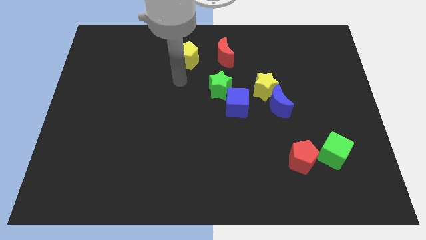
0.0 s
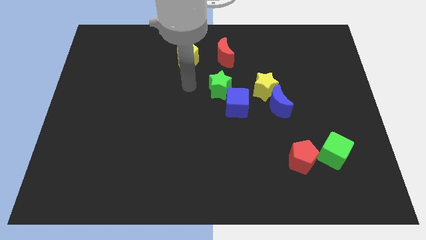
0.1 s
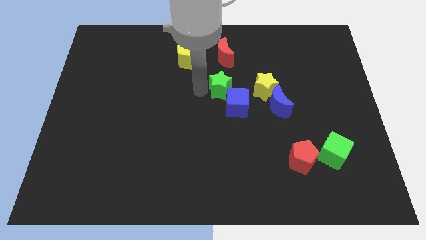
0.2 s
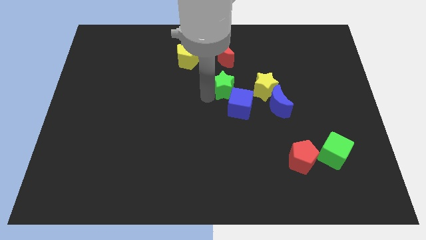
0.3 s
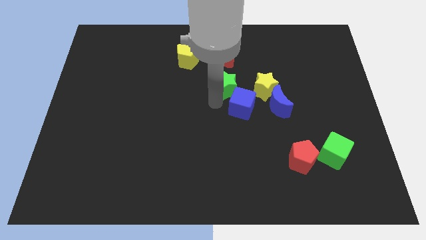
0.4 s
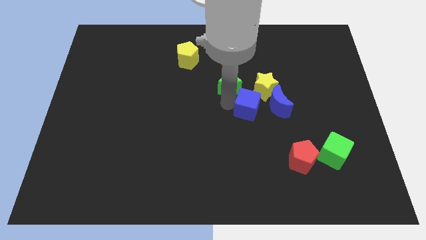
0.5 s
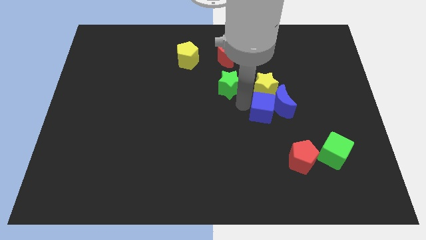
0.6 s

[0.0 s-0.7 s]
separate the green star from the blue cube

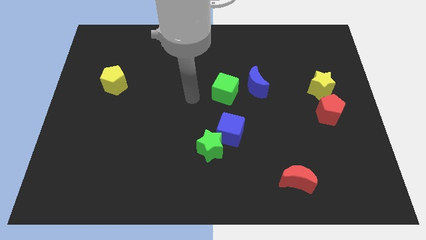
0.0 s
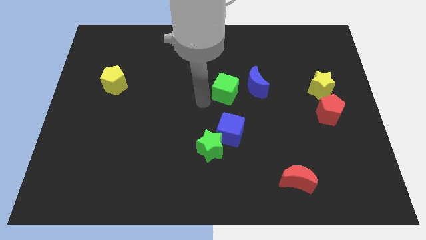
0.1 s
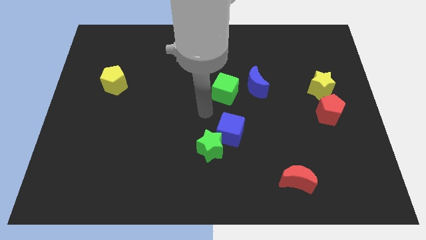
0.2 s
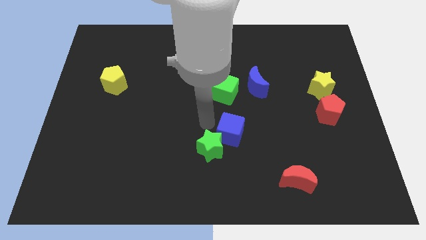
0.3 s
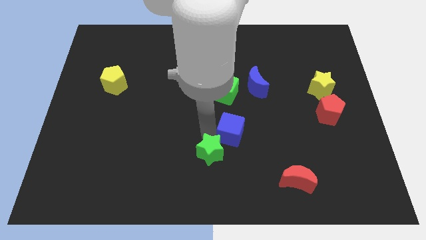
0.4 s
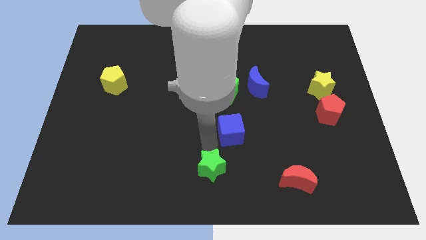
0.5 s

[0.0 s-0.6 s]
move the blue cube away from the green star

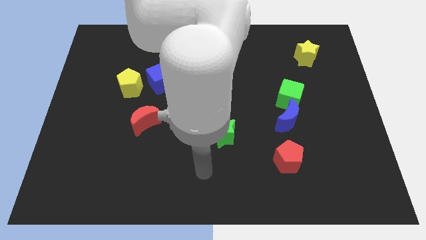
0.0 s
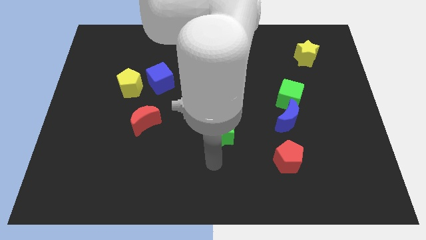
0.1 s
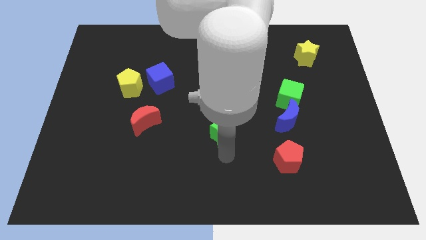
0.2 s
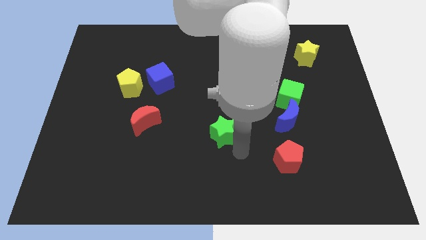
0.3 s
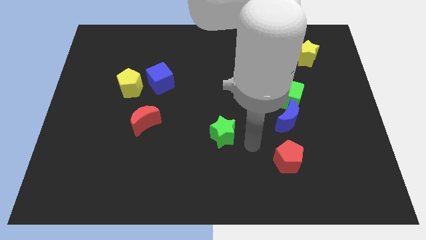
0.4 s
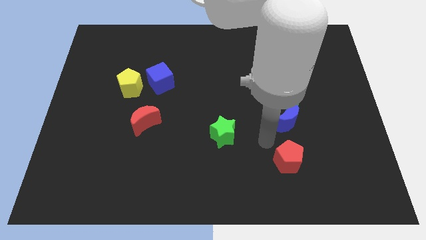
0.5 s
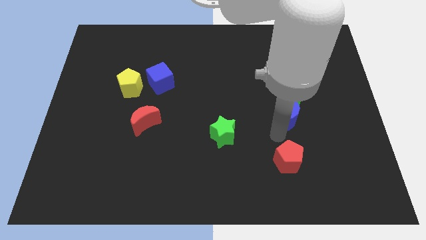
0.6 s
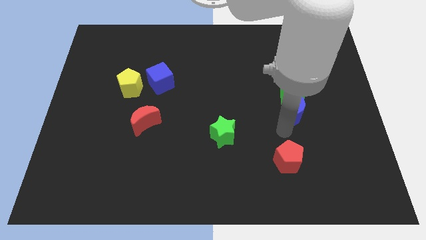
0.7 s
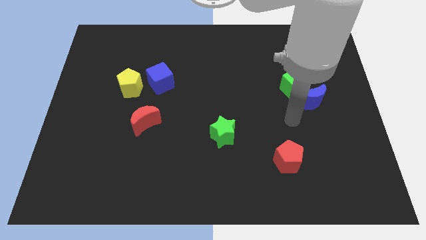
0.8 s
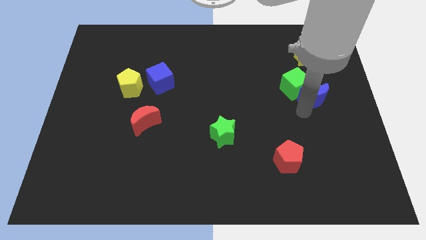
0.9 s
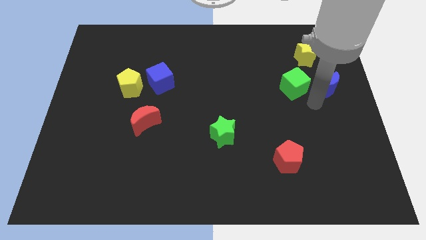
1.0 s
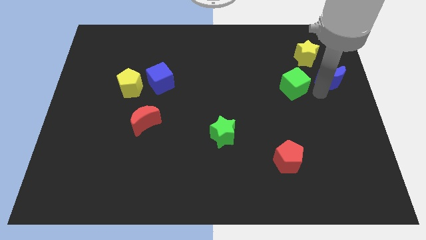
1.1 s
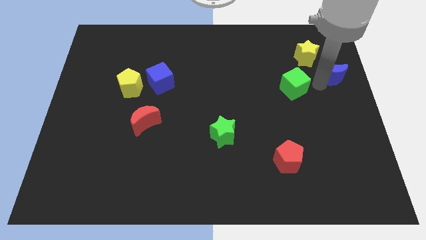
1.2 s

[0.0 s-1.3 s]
pull the green cube apart from the blue moon

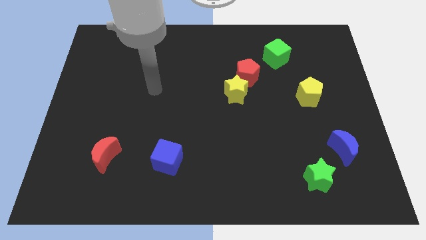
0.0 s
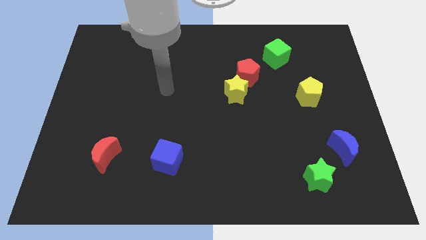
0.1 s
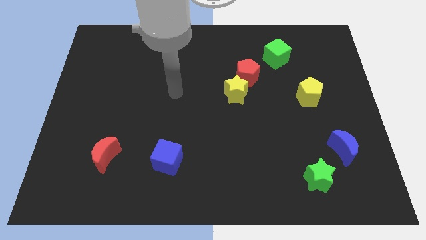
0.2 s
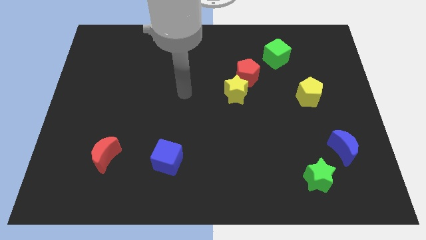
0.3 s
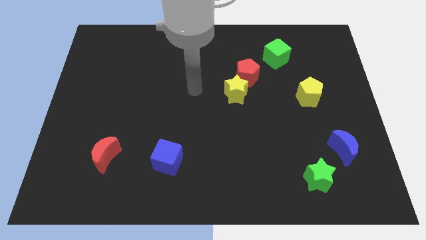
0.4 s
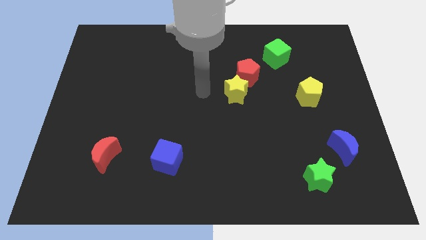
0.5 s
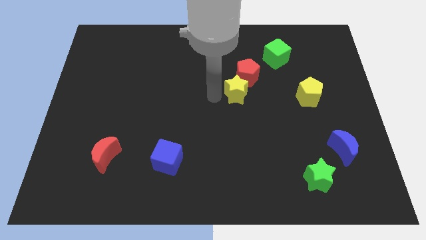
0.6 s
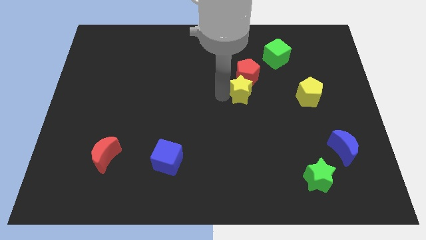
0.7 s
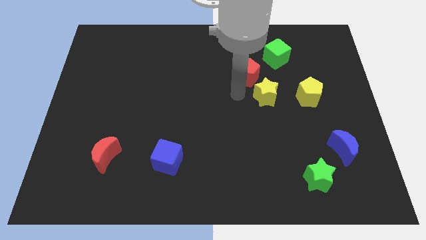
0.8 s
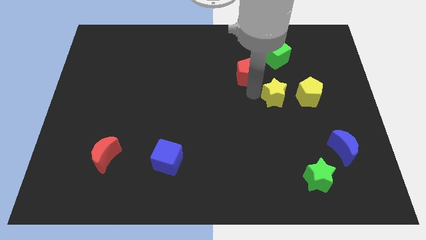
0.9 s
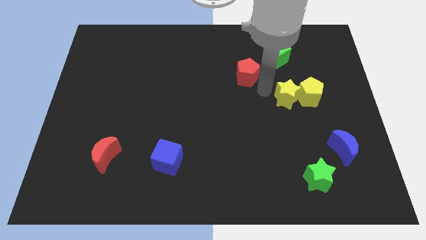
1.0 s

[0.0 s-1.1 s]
move the red pentagon away from the yellow star

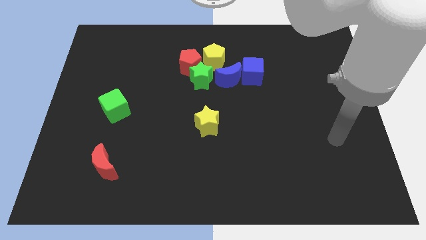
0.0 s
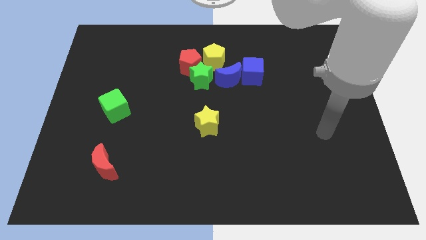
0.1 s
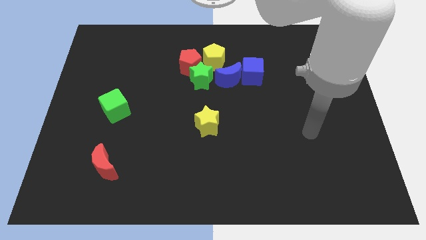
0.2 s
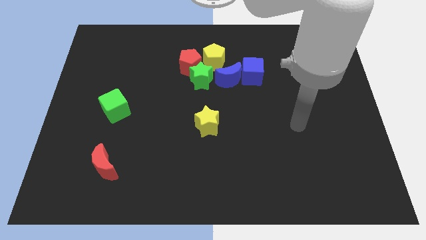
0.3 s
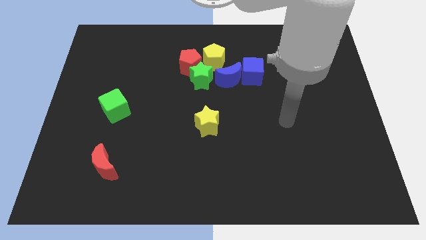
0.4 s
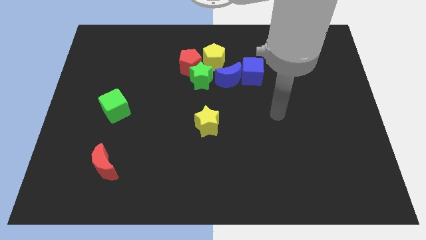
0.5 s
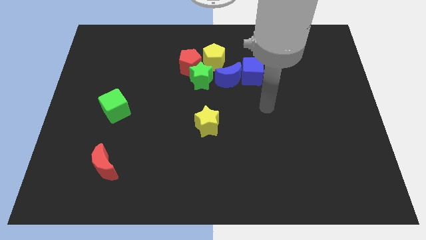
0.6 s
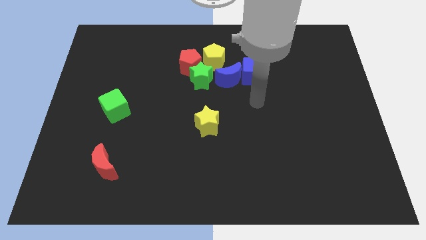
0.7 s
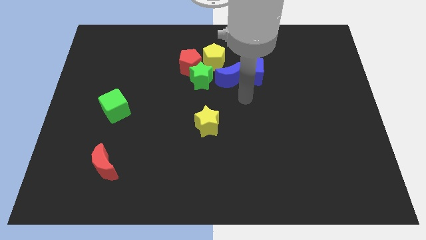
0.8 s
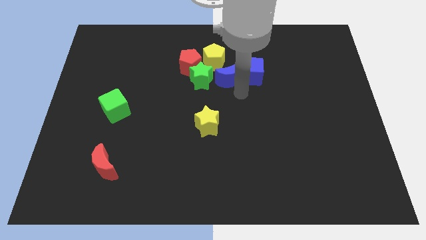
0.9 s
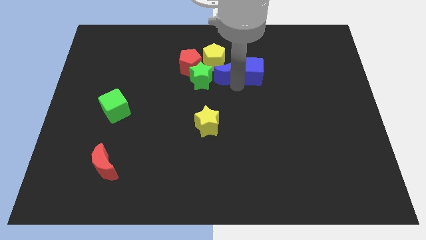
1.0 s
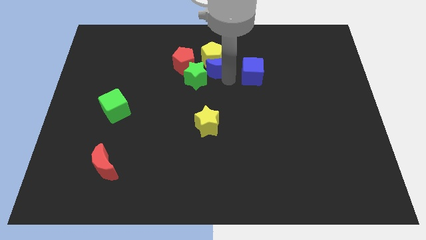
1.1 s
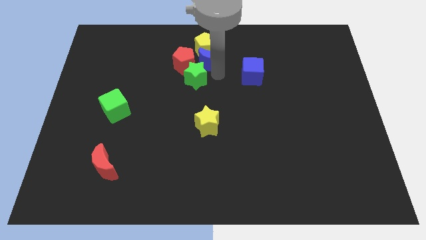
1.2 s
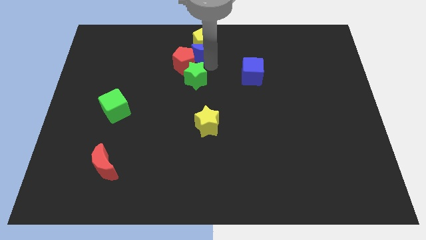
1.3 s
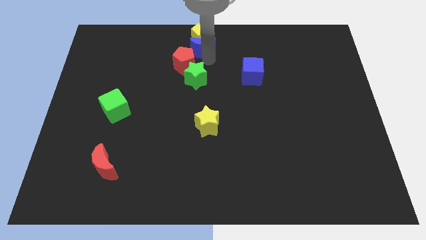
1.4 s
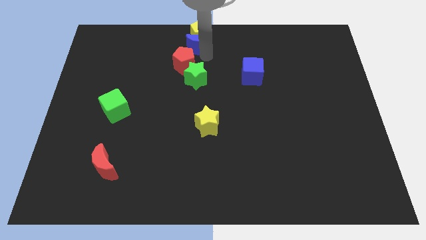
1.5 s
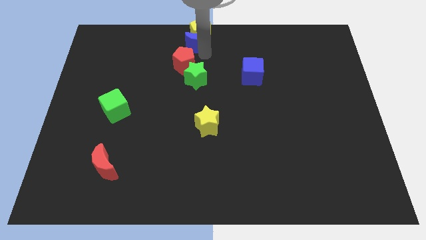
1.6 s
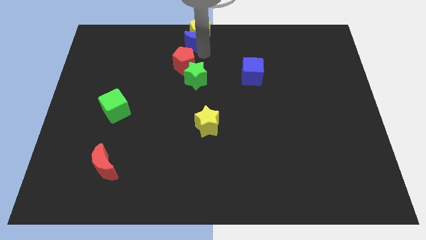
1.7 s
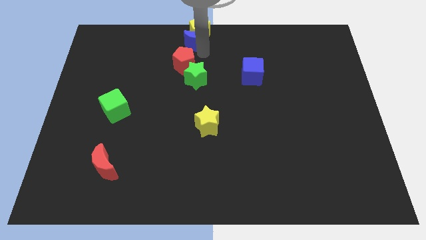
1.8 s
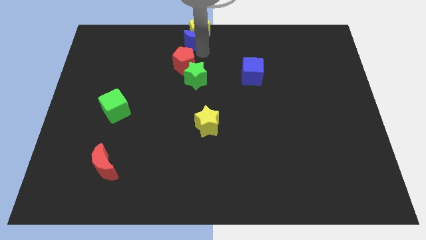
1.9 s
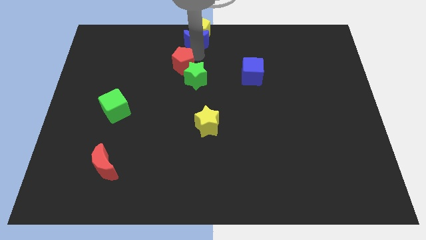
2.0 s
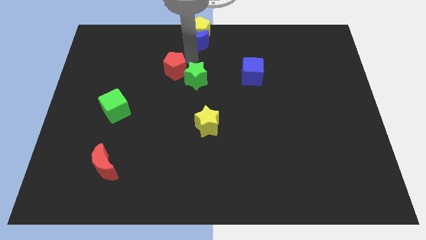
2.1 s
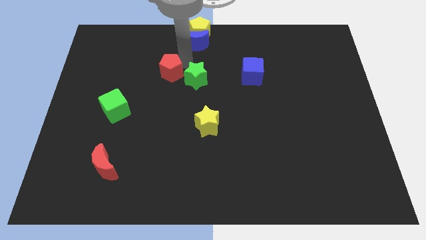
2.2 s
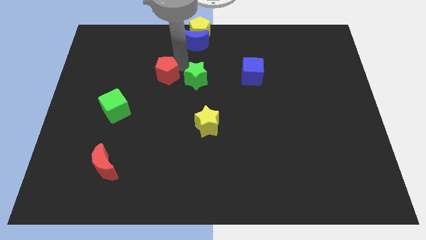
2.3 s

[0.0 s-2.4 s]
separate the red pentagon from the green star and yellow pentagon

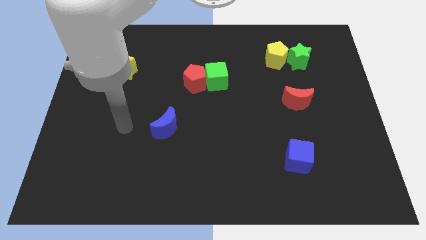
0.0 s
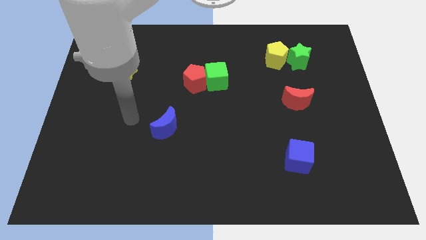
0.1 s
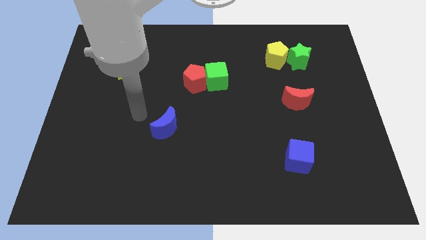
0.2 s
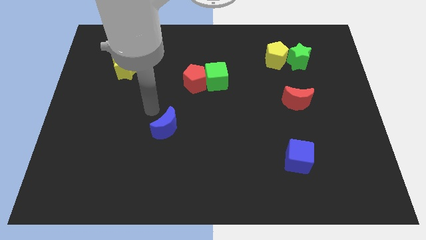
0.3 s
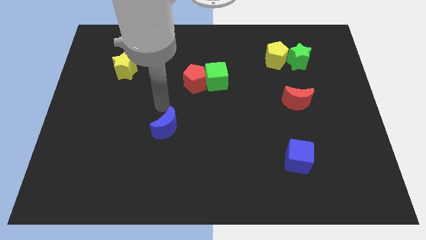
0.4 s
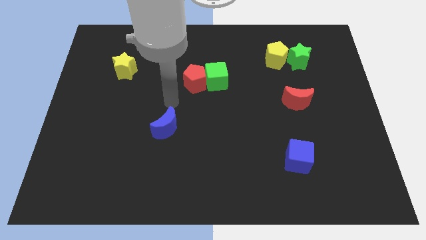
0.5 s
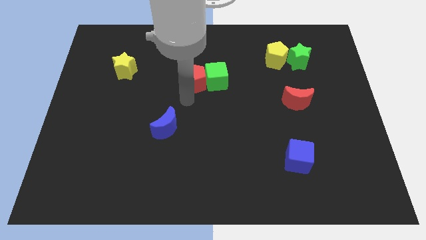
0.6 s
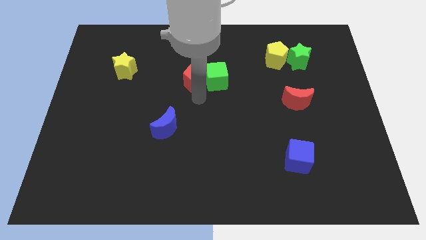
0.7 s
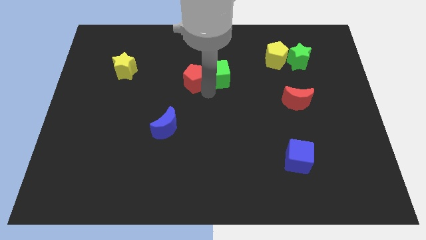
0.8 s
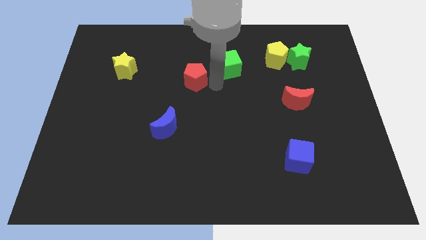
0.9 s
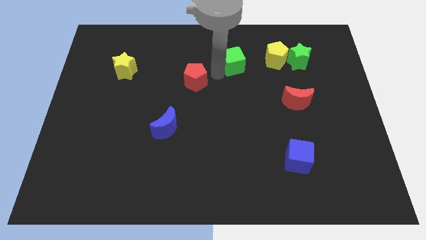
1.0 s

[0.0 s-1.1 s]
separate the red pentagon from the green cube

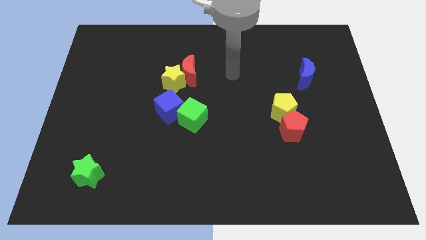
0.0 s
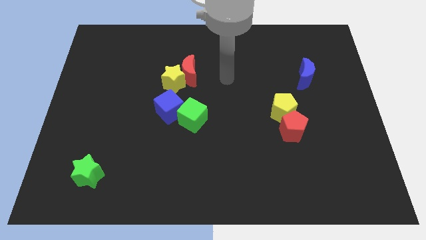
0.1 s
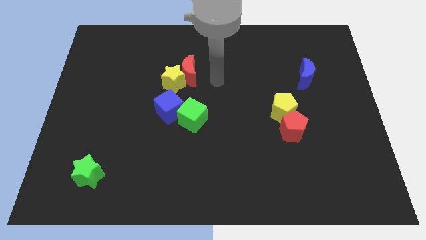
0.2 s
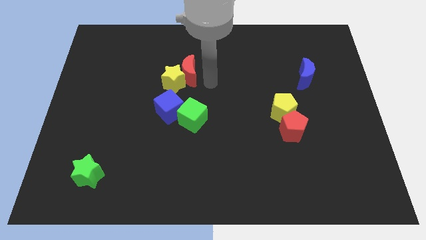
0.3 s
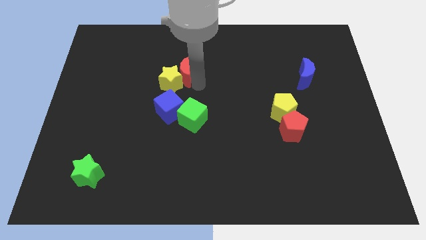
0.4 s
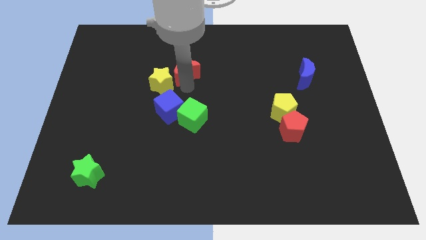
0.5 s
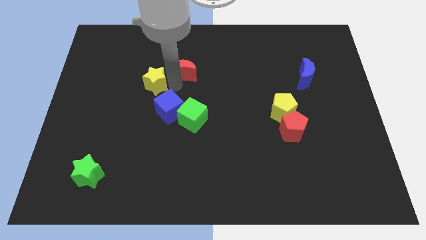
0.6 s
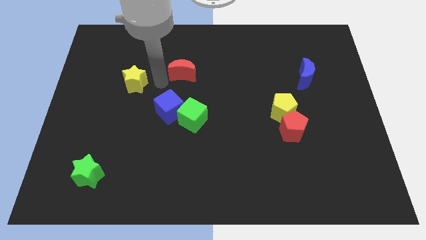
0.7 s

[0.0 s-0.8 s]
move the red moon away from the yellow star

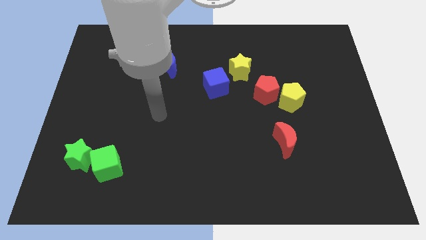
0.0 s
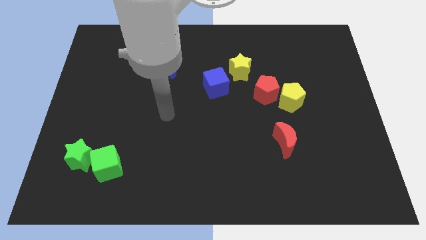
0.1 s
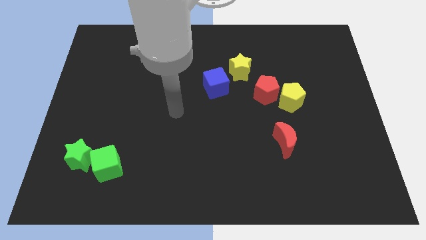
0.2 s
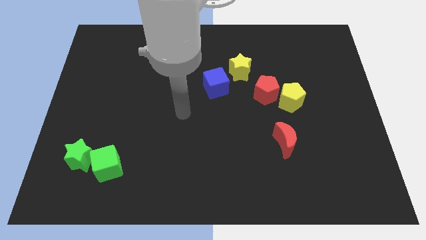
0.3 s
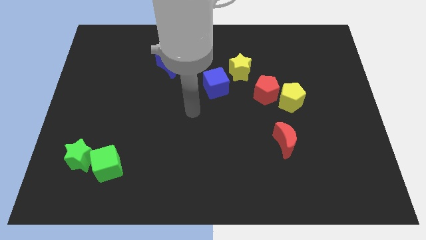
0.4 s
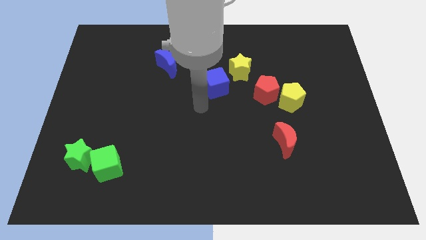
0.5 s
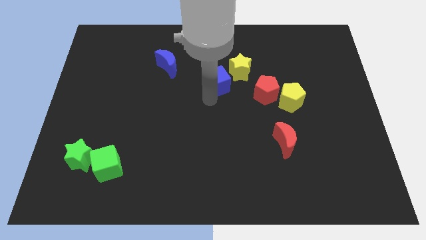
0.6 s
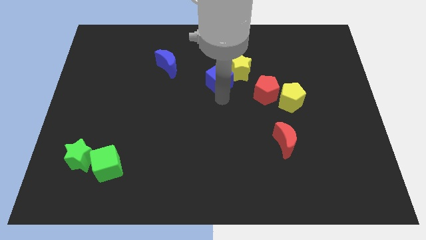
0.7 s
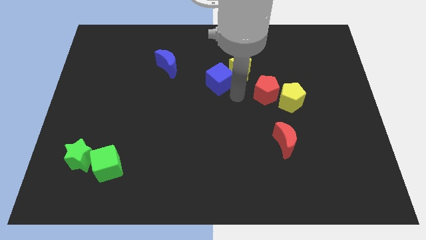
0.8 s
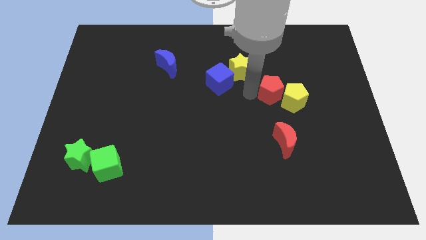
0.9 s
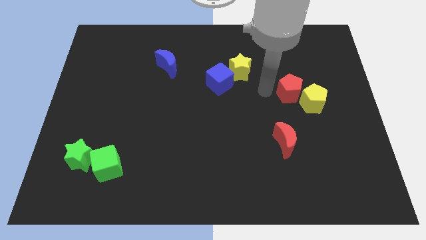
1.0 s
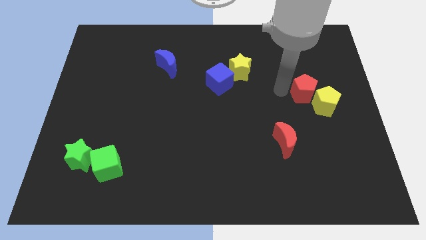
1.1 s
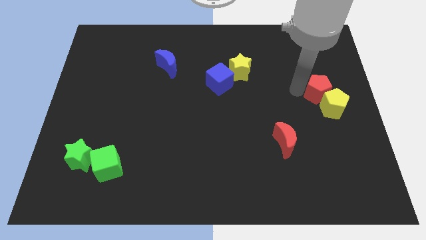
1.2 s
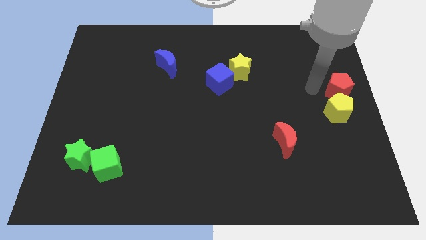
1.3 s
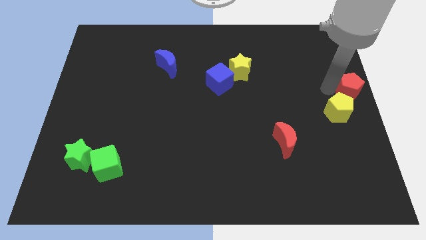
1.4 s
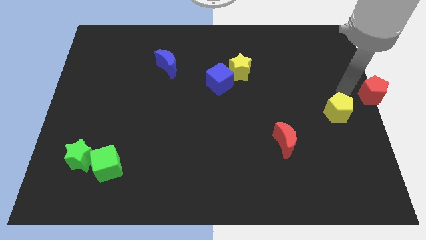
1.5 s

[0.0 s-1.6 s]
pull the yellow pentagon apart from the red pentagon
